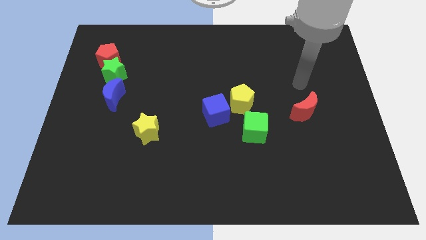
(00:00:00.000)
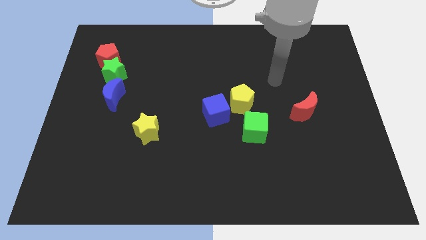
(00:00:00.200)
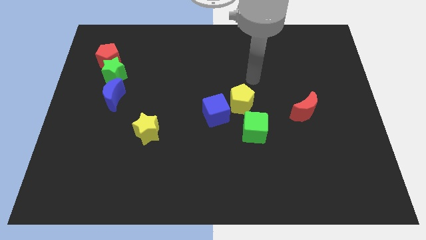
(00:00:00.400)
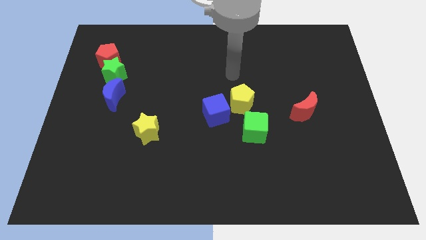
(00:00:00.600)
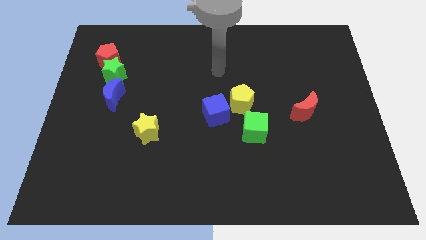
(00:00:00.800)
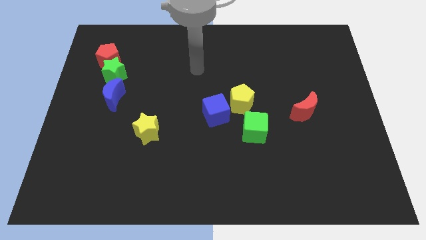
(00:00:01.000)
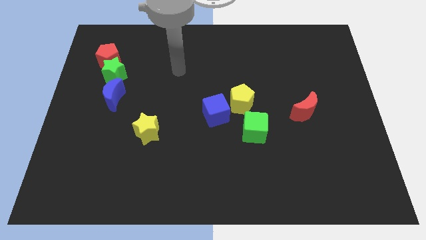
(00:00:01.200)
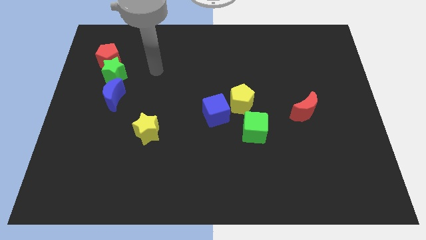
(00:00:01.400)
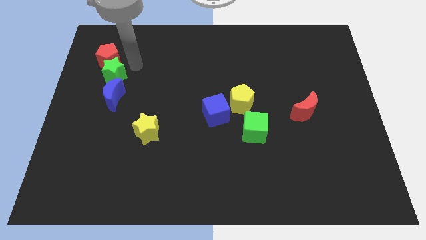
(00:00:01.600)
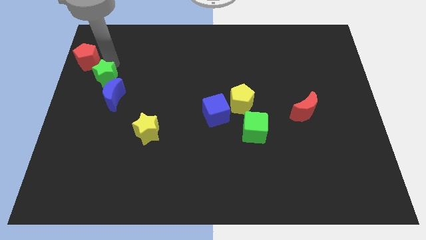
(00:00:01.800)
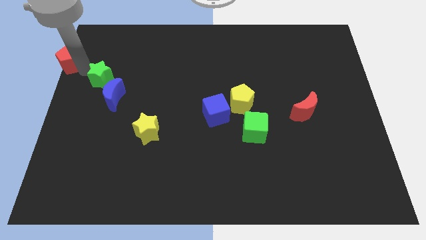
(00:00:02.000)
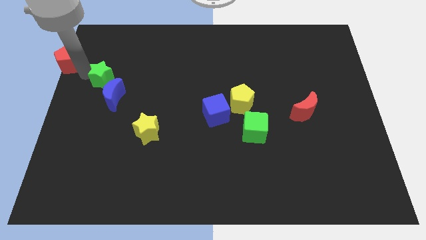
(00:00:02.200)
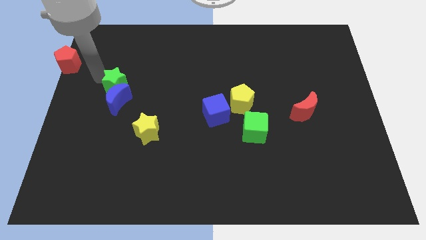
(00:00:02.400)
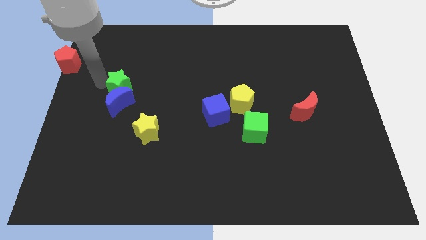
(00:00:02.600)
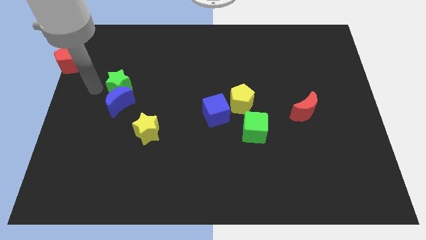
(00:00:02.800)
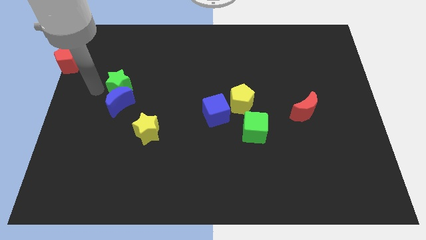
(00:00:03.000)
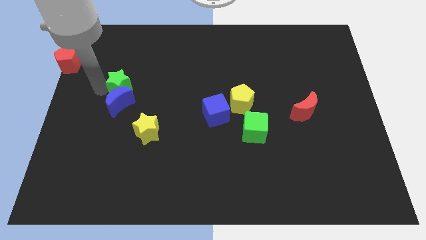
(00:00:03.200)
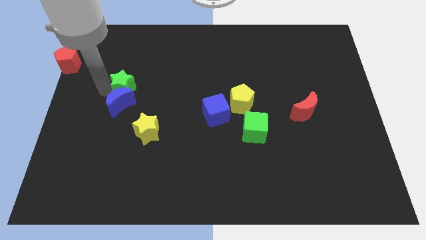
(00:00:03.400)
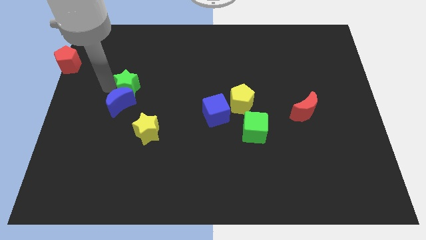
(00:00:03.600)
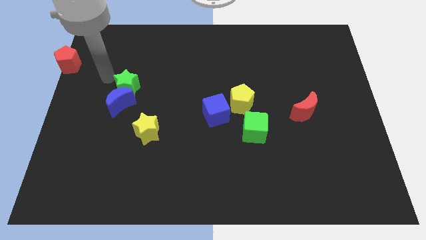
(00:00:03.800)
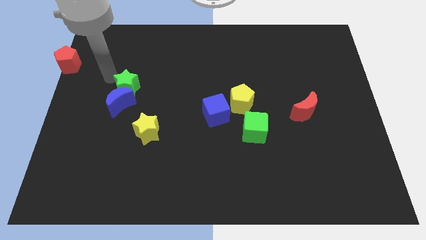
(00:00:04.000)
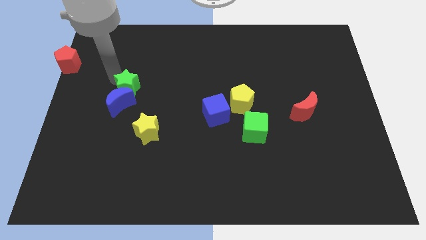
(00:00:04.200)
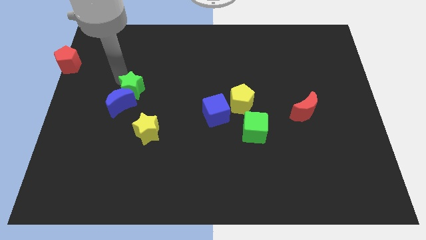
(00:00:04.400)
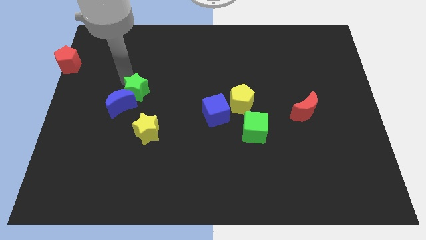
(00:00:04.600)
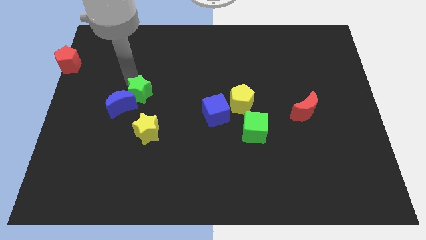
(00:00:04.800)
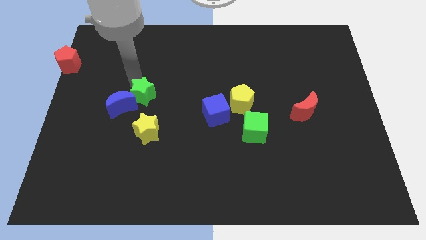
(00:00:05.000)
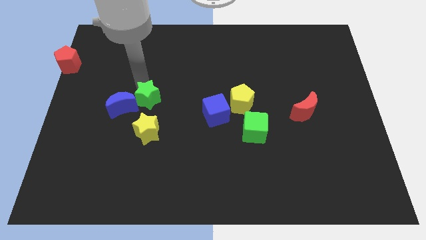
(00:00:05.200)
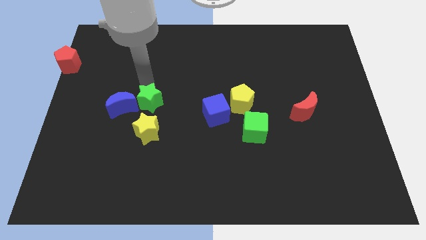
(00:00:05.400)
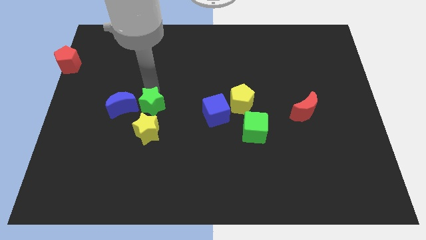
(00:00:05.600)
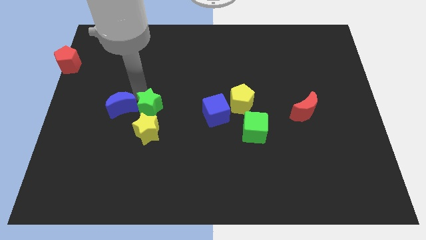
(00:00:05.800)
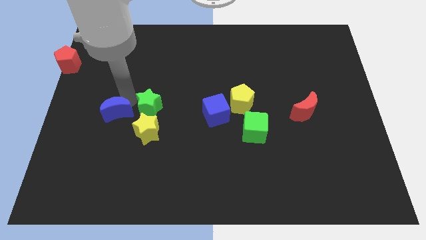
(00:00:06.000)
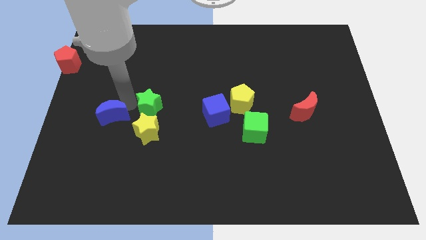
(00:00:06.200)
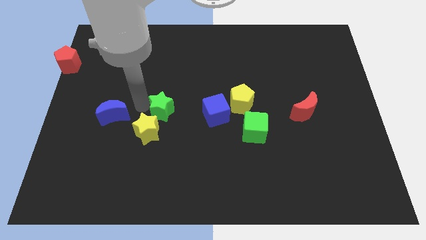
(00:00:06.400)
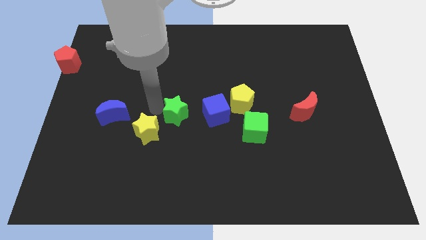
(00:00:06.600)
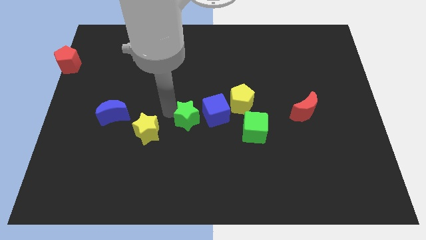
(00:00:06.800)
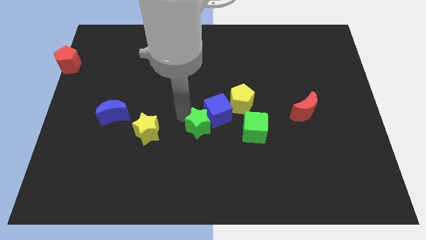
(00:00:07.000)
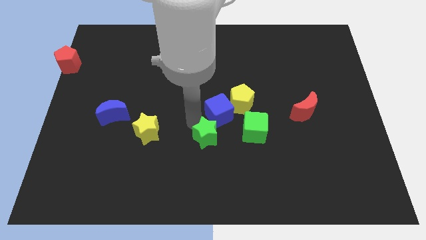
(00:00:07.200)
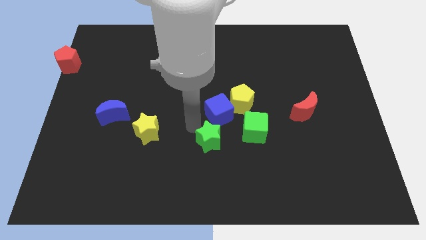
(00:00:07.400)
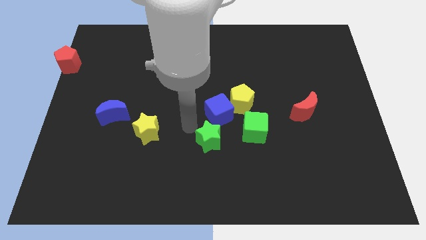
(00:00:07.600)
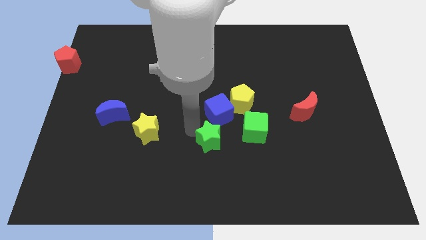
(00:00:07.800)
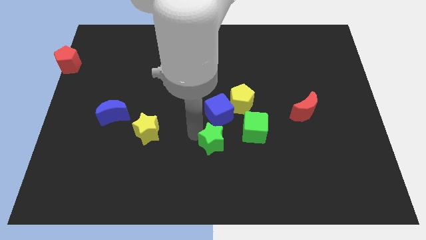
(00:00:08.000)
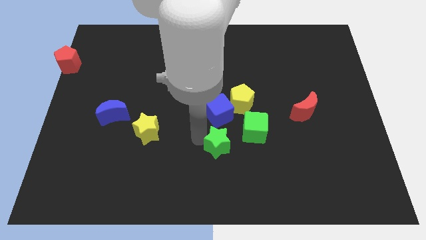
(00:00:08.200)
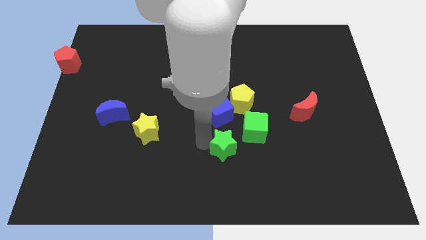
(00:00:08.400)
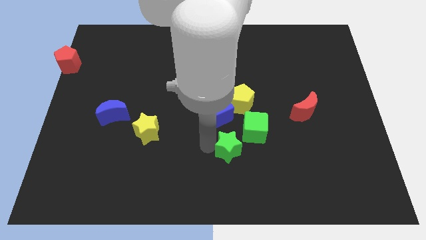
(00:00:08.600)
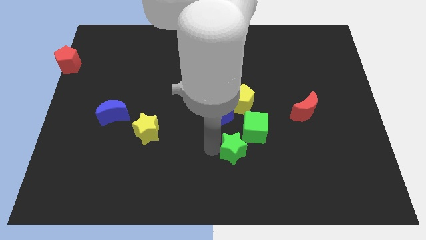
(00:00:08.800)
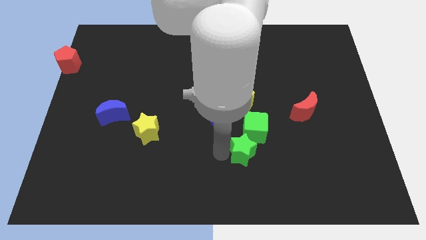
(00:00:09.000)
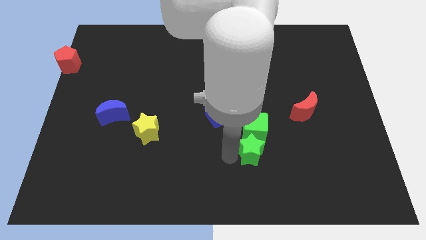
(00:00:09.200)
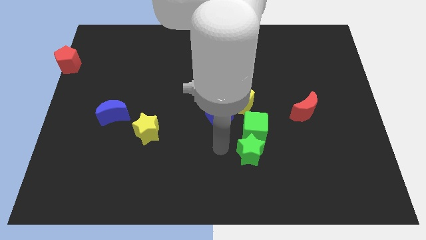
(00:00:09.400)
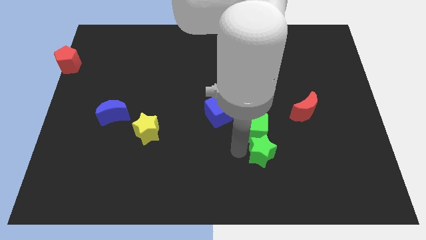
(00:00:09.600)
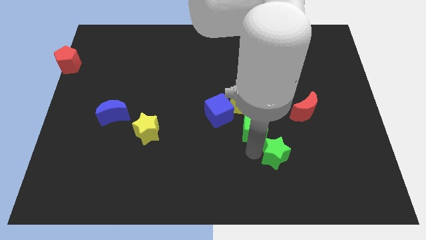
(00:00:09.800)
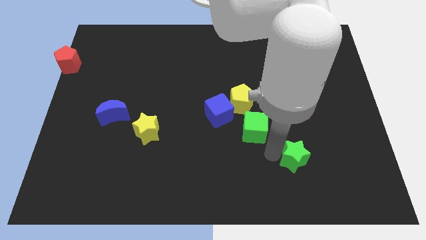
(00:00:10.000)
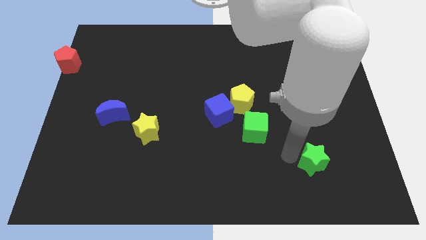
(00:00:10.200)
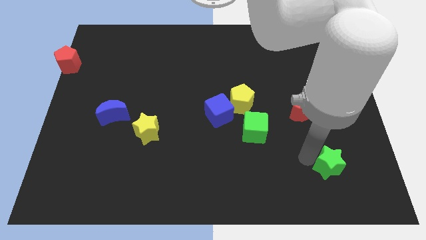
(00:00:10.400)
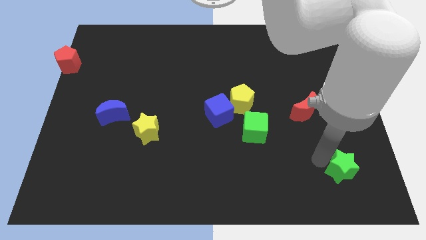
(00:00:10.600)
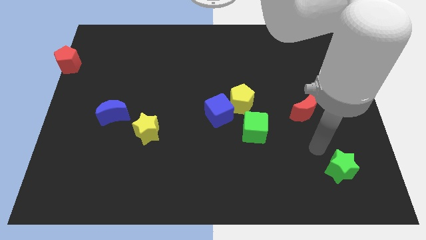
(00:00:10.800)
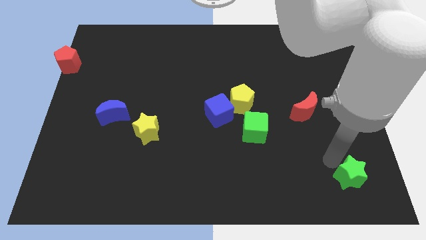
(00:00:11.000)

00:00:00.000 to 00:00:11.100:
push the green star to the lower right corner

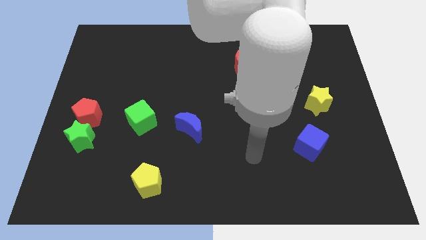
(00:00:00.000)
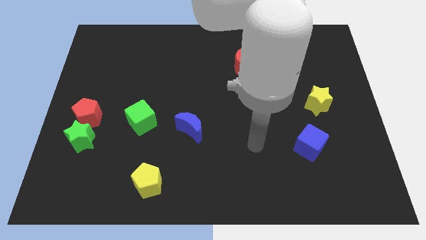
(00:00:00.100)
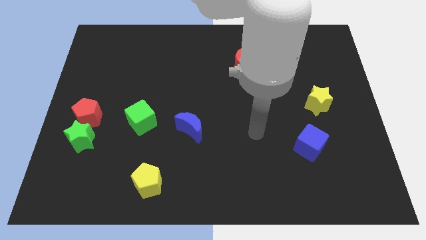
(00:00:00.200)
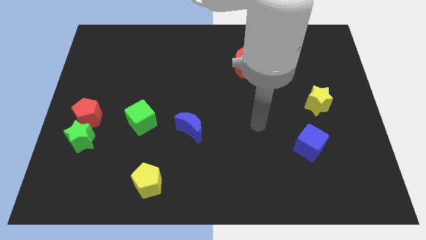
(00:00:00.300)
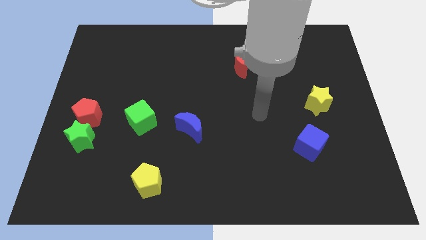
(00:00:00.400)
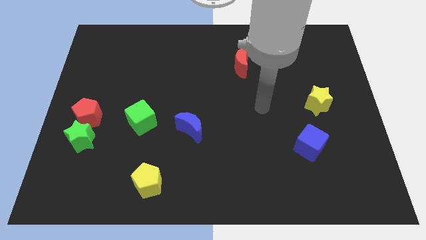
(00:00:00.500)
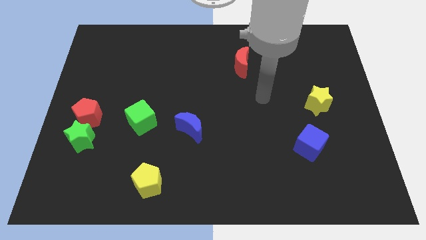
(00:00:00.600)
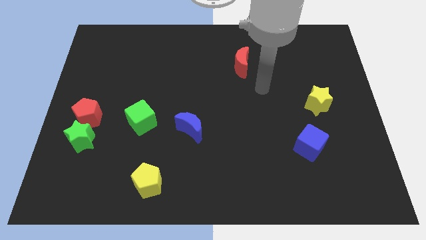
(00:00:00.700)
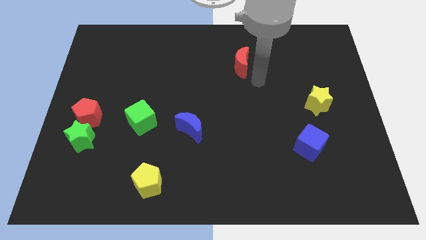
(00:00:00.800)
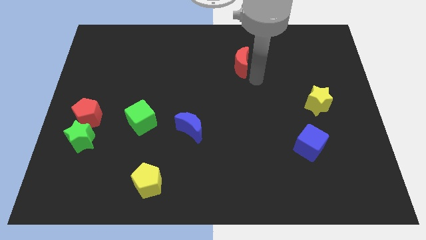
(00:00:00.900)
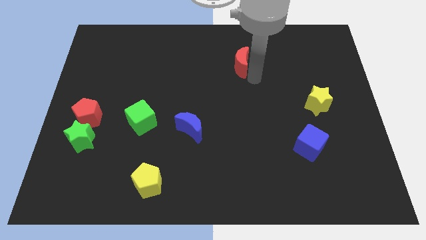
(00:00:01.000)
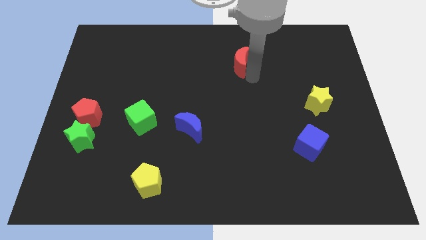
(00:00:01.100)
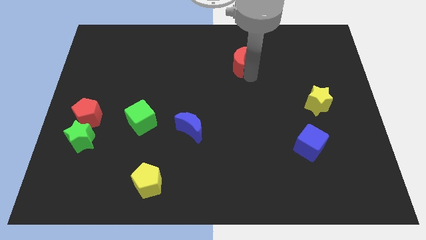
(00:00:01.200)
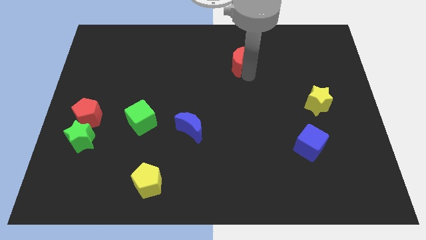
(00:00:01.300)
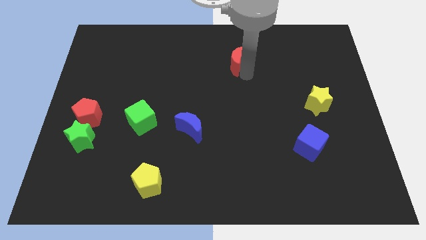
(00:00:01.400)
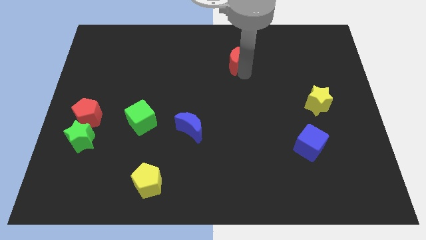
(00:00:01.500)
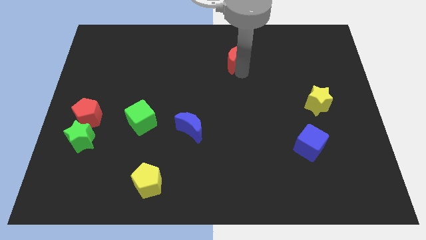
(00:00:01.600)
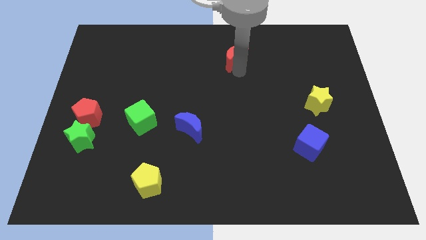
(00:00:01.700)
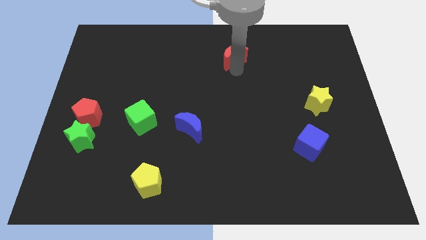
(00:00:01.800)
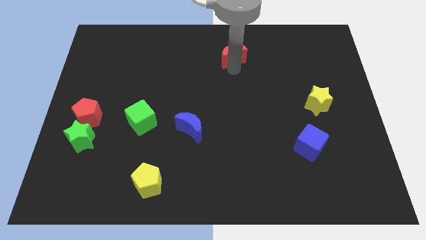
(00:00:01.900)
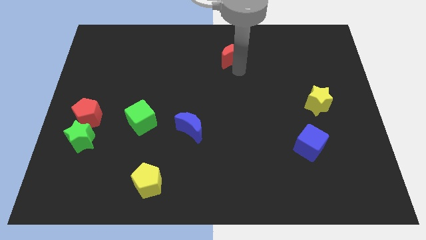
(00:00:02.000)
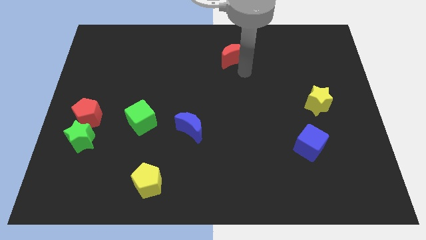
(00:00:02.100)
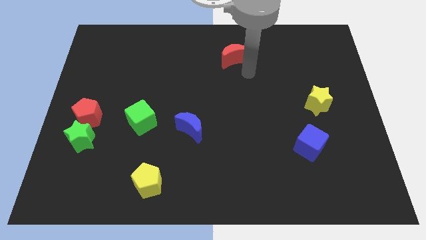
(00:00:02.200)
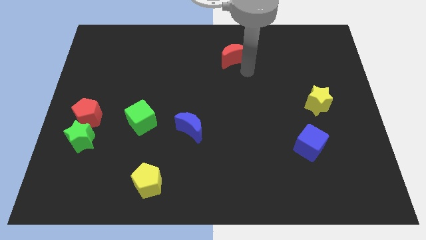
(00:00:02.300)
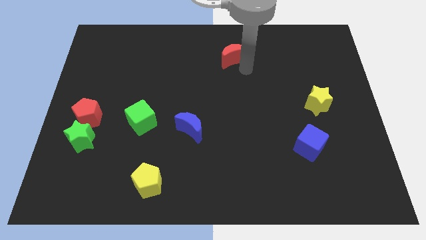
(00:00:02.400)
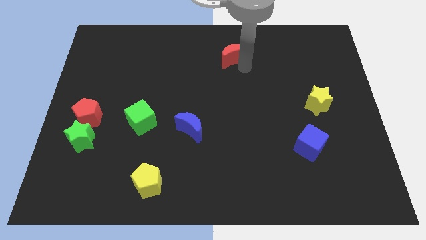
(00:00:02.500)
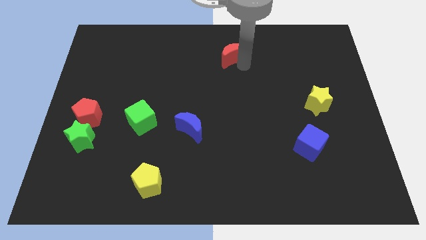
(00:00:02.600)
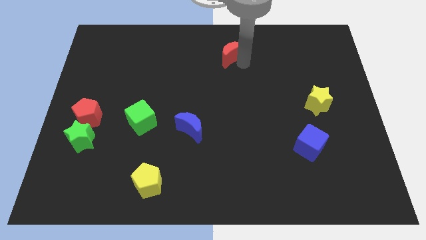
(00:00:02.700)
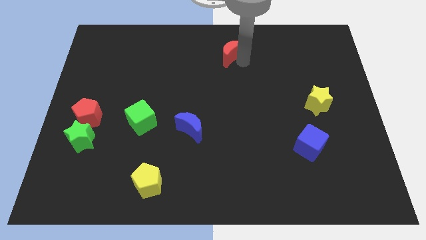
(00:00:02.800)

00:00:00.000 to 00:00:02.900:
push the red moon to the top side
